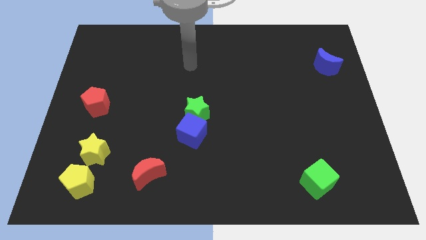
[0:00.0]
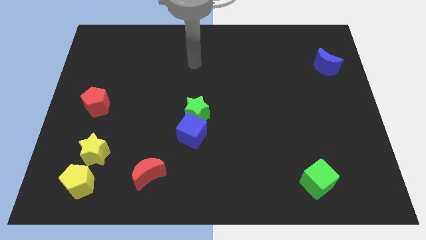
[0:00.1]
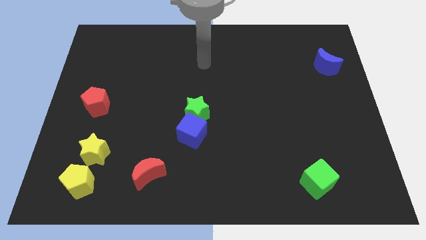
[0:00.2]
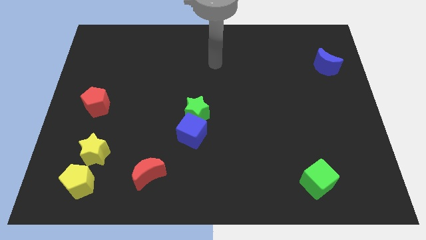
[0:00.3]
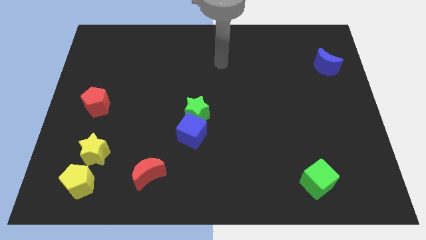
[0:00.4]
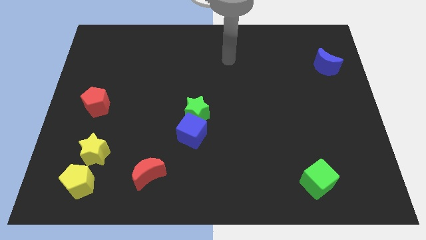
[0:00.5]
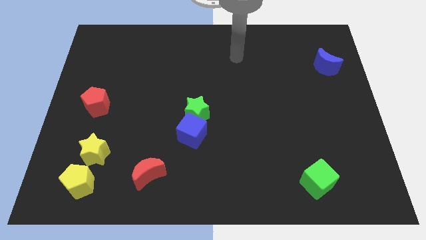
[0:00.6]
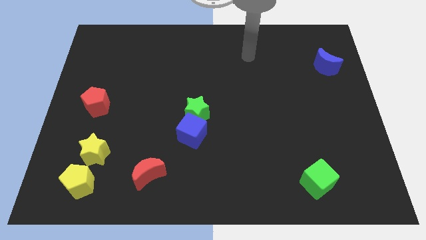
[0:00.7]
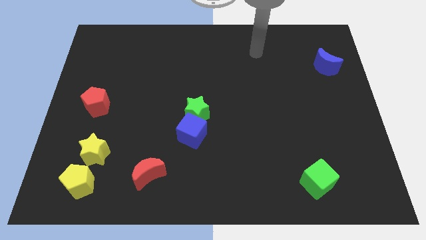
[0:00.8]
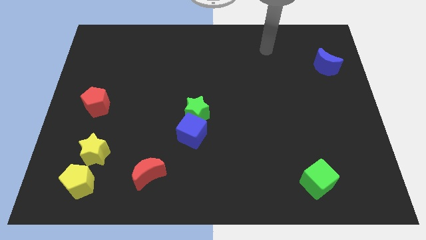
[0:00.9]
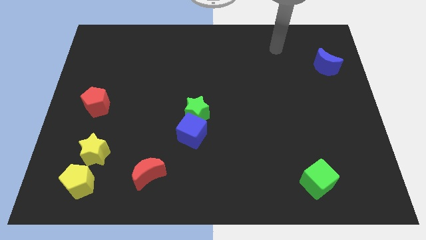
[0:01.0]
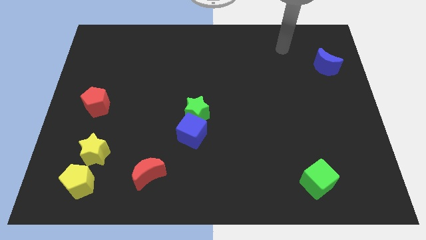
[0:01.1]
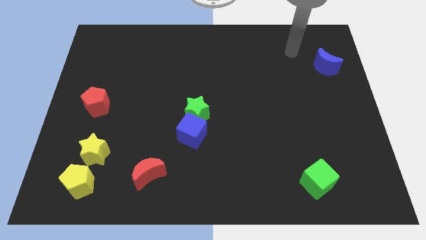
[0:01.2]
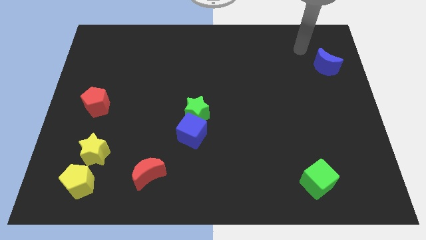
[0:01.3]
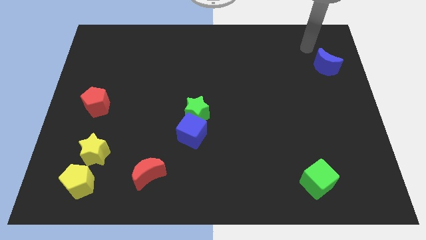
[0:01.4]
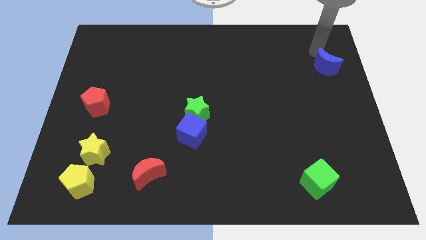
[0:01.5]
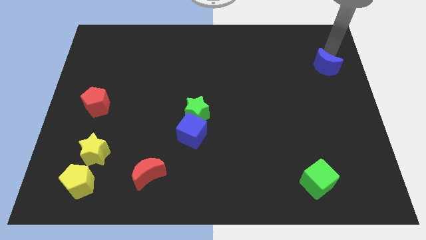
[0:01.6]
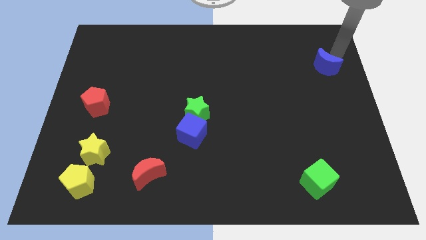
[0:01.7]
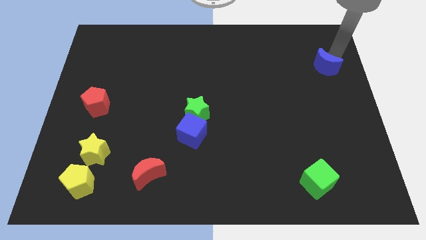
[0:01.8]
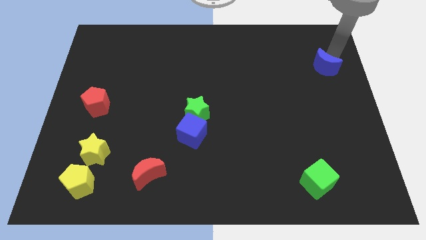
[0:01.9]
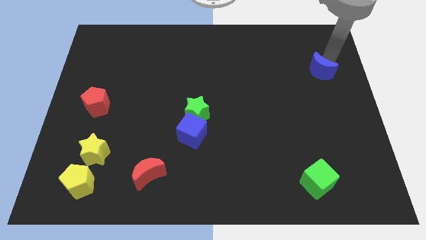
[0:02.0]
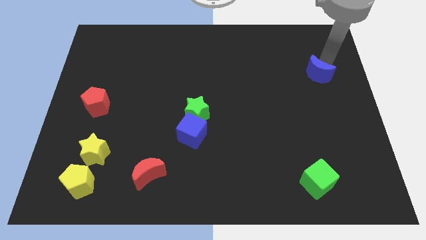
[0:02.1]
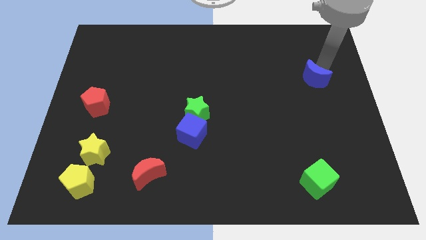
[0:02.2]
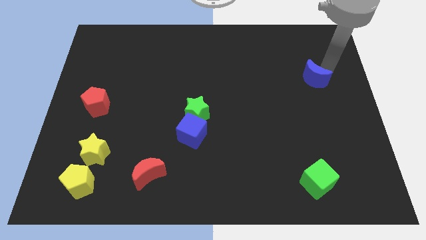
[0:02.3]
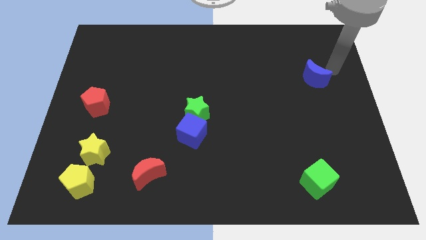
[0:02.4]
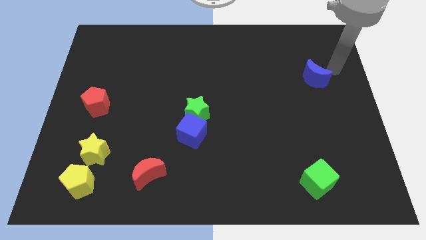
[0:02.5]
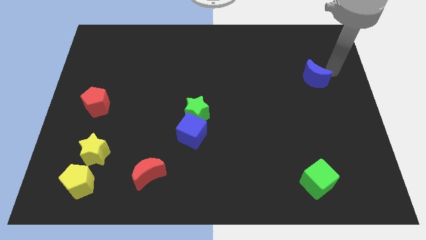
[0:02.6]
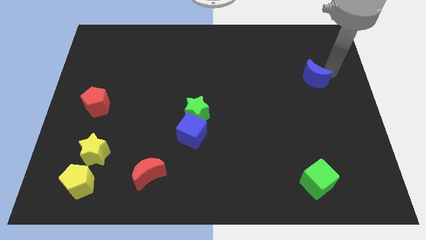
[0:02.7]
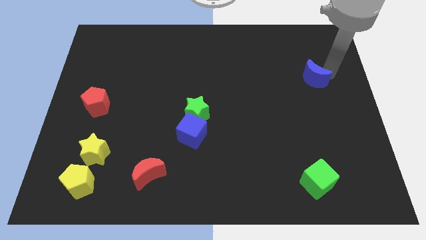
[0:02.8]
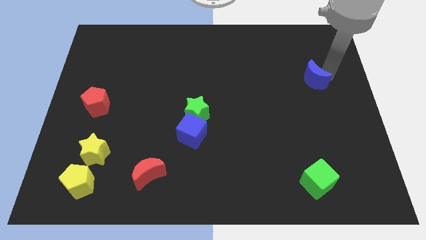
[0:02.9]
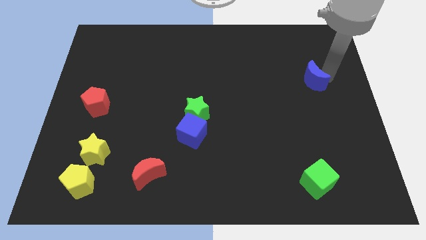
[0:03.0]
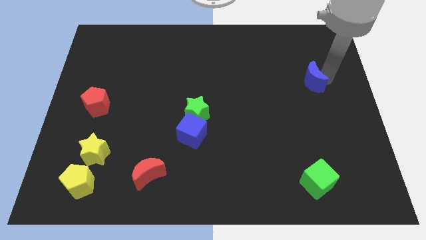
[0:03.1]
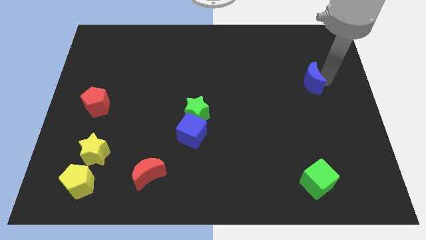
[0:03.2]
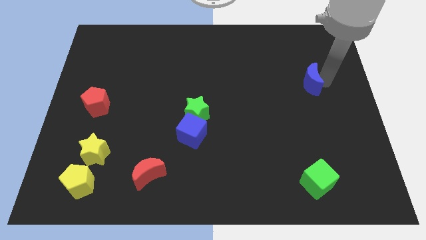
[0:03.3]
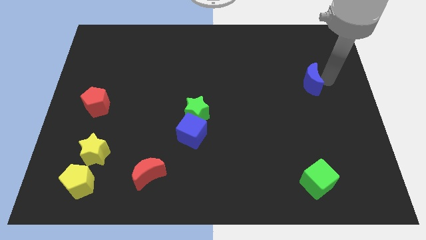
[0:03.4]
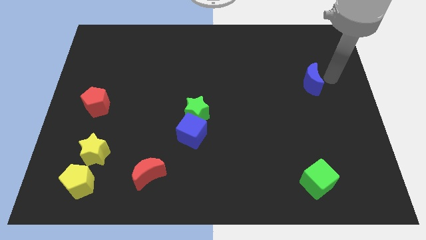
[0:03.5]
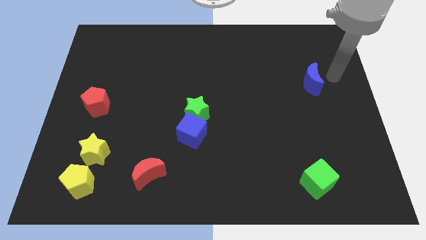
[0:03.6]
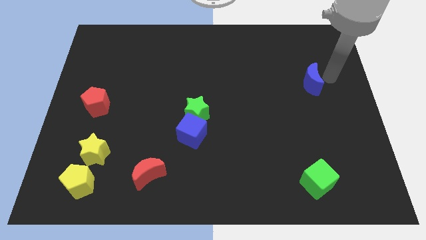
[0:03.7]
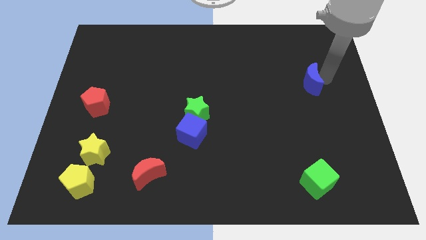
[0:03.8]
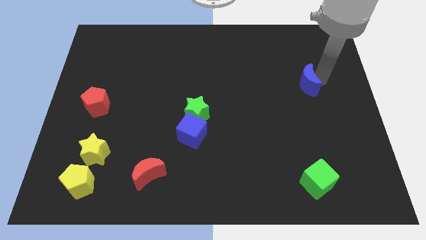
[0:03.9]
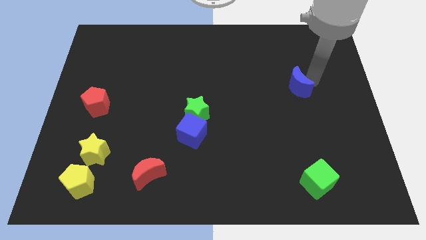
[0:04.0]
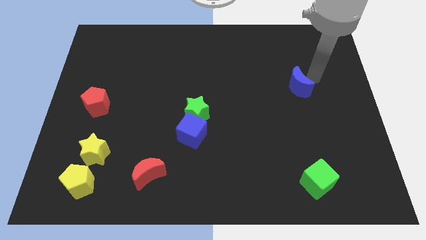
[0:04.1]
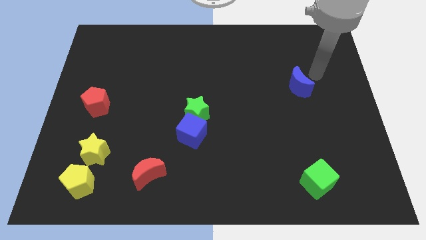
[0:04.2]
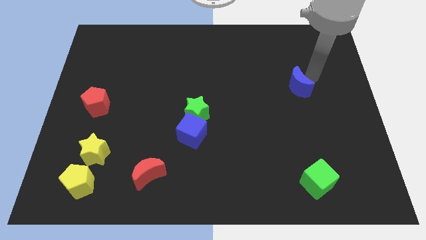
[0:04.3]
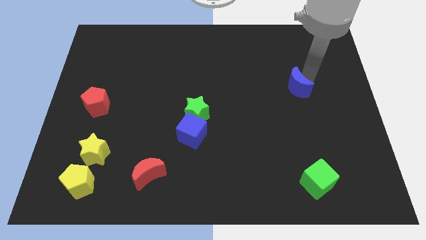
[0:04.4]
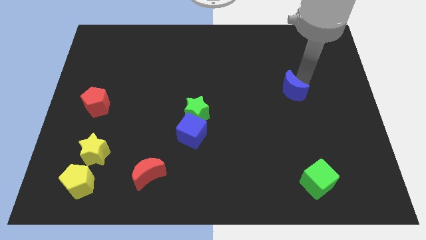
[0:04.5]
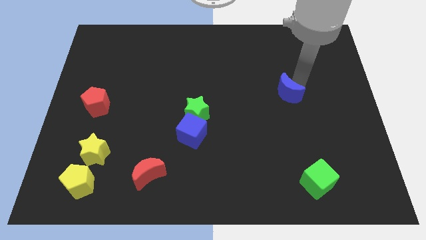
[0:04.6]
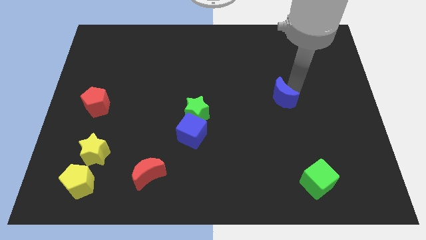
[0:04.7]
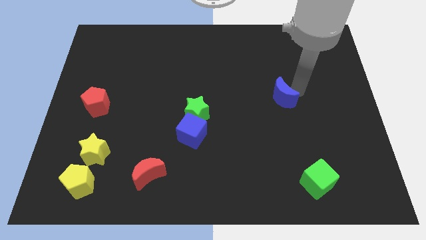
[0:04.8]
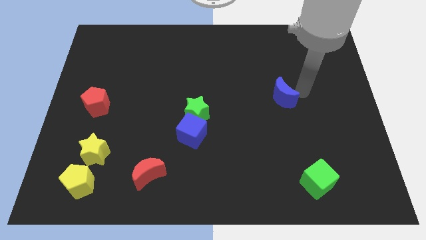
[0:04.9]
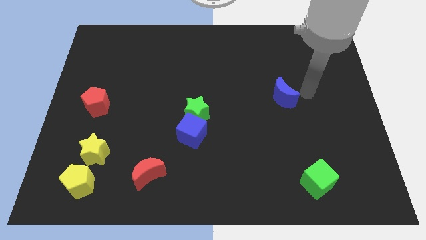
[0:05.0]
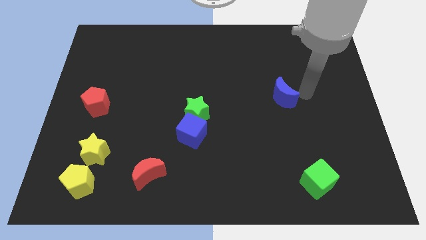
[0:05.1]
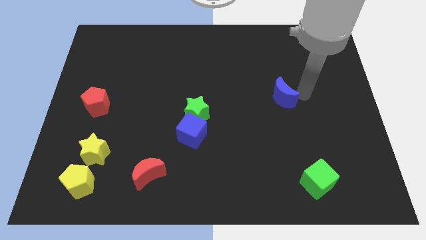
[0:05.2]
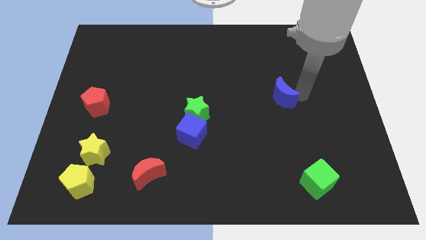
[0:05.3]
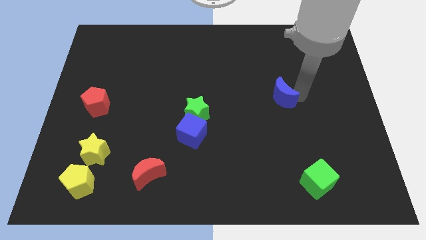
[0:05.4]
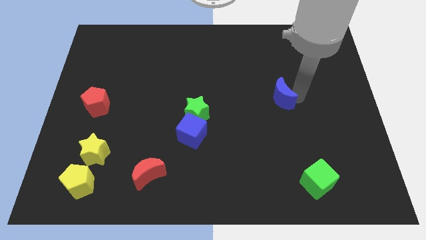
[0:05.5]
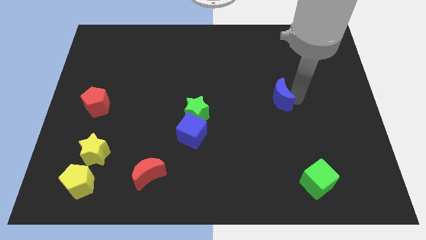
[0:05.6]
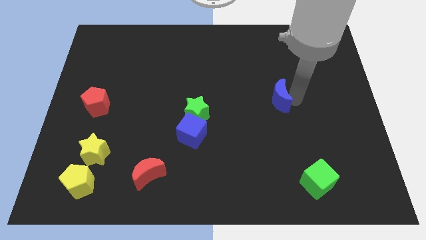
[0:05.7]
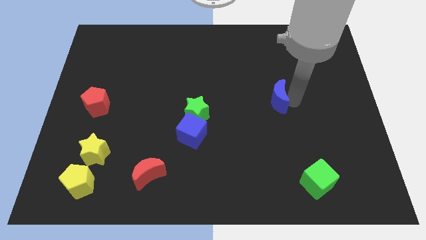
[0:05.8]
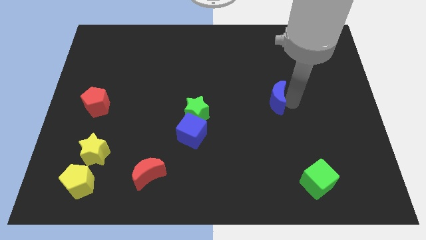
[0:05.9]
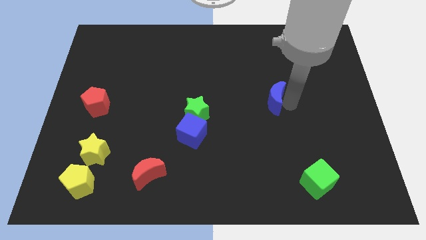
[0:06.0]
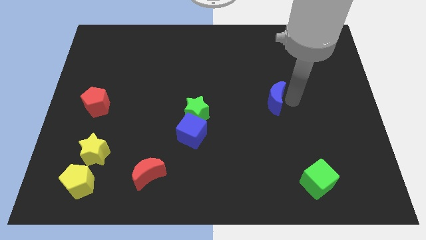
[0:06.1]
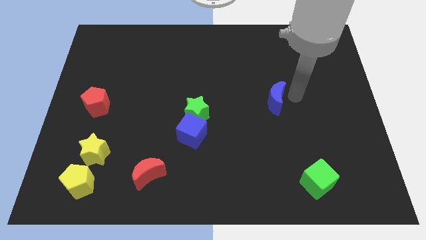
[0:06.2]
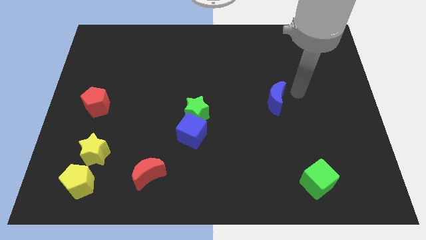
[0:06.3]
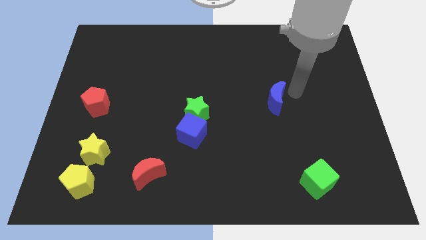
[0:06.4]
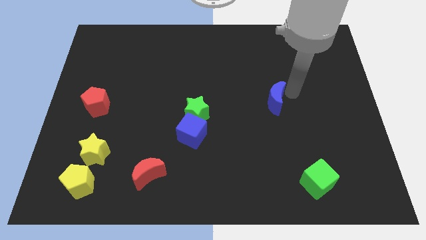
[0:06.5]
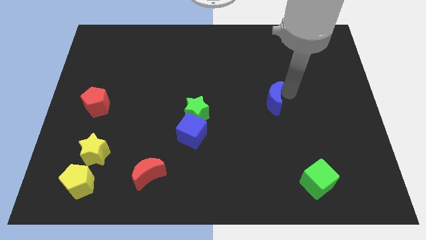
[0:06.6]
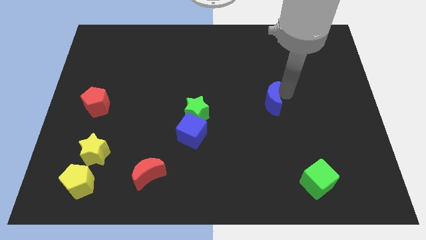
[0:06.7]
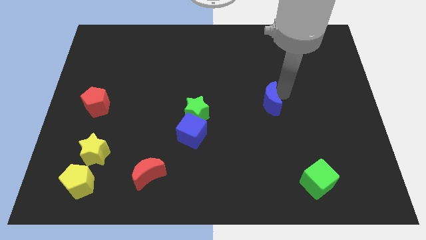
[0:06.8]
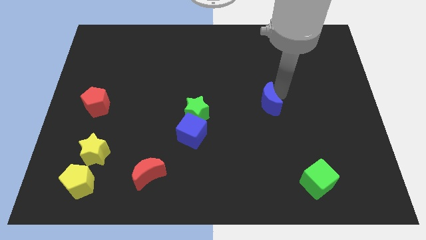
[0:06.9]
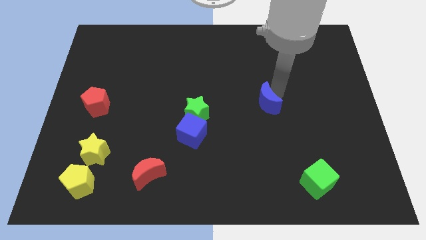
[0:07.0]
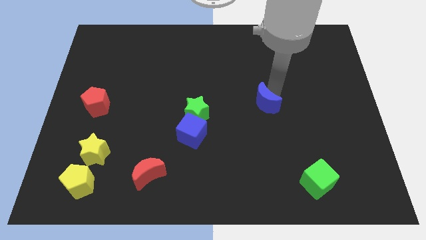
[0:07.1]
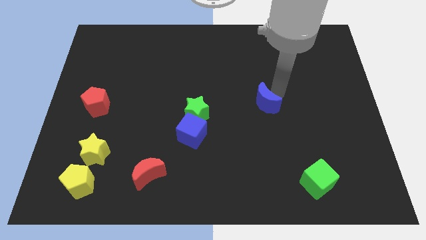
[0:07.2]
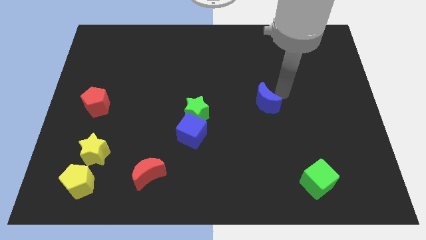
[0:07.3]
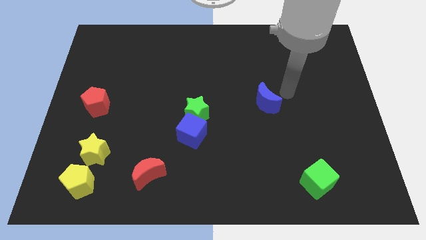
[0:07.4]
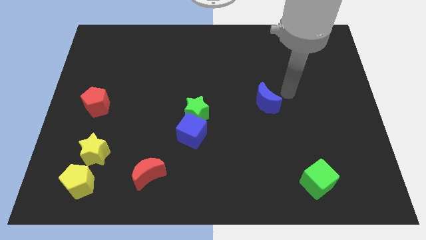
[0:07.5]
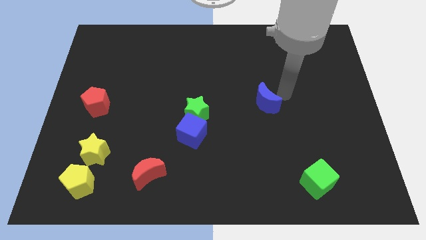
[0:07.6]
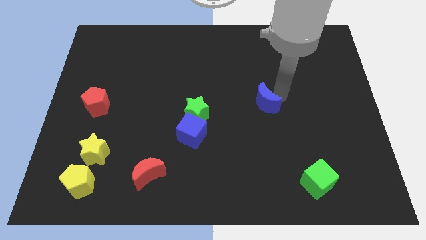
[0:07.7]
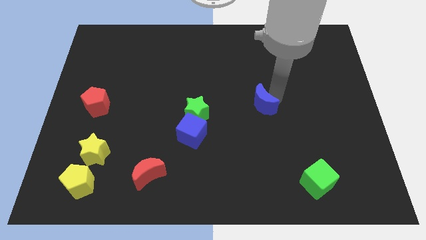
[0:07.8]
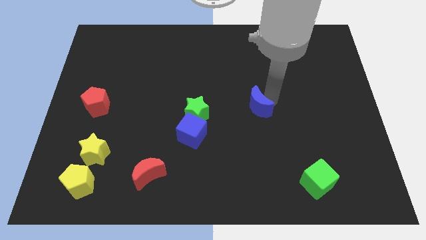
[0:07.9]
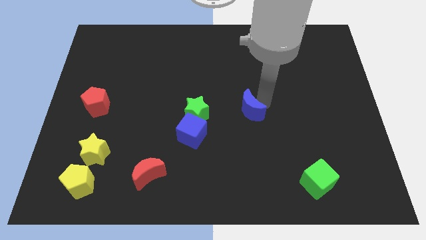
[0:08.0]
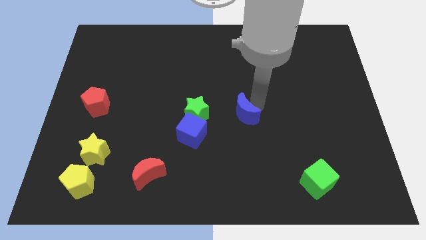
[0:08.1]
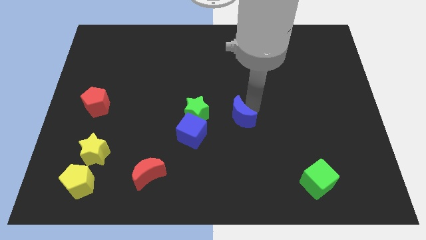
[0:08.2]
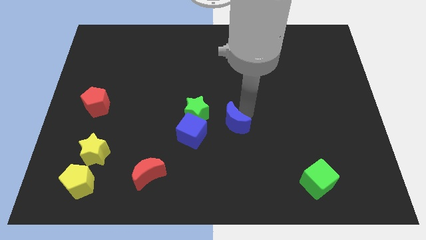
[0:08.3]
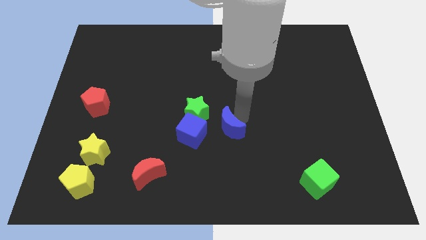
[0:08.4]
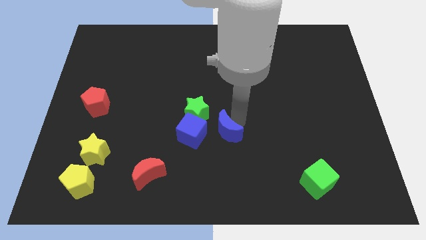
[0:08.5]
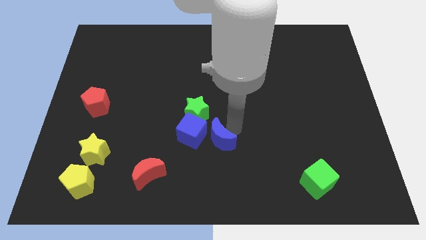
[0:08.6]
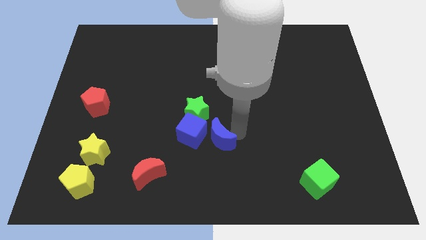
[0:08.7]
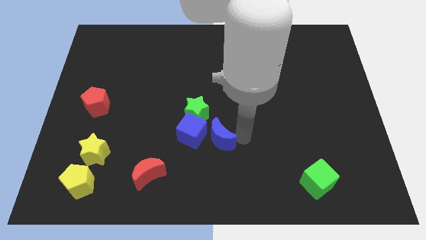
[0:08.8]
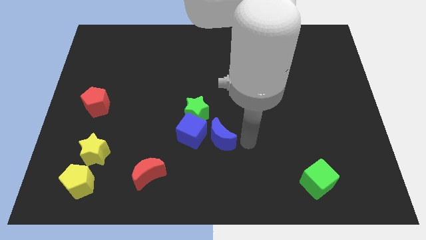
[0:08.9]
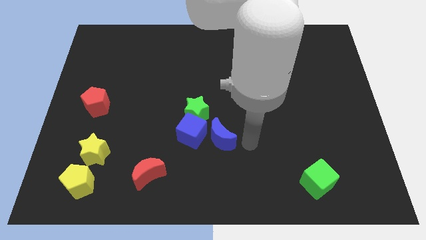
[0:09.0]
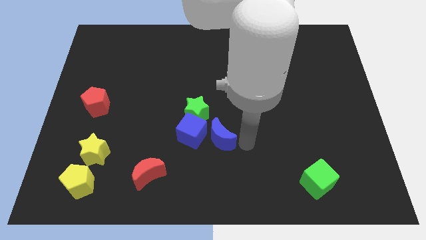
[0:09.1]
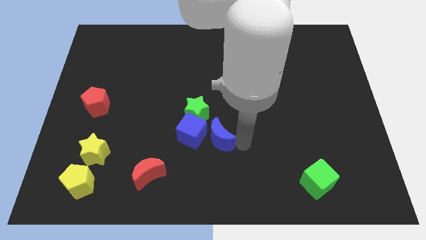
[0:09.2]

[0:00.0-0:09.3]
move the blue moon next to the blue cube
